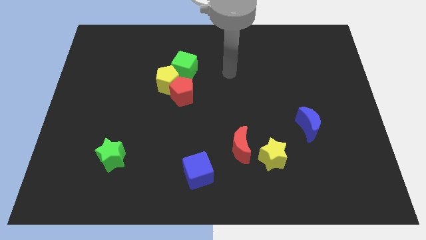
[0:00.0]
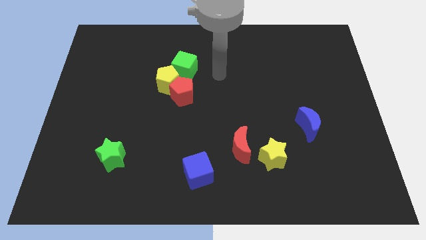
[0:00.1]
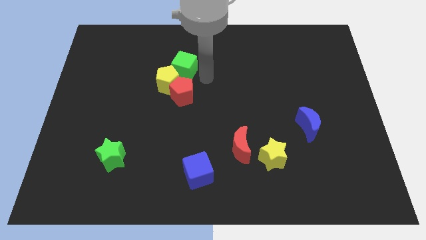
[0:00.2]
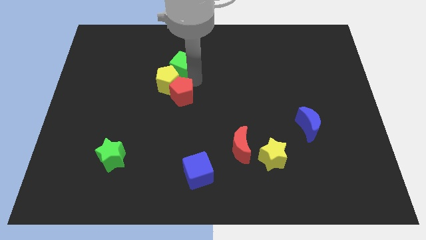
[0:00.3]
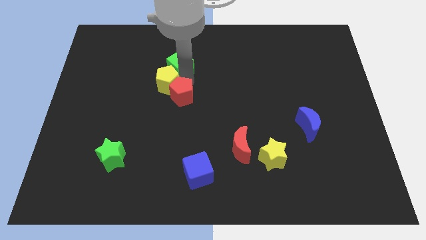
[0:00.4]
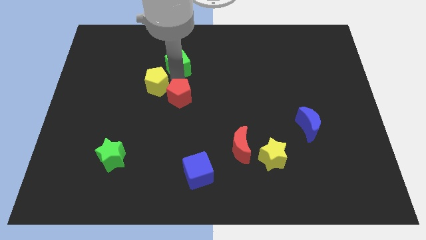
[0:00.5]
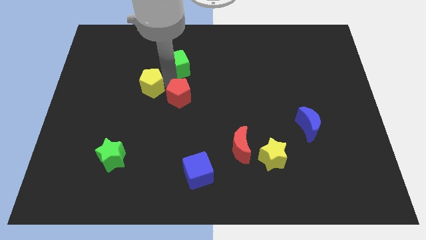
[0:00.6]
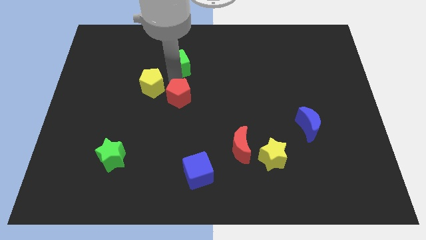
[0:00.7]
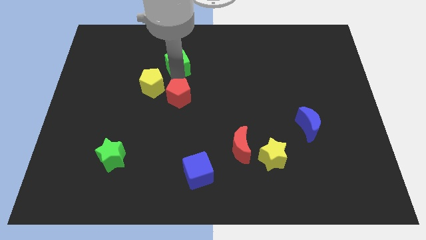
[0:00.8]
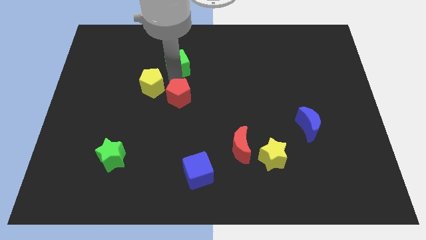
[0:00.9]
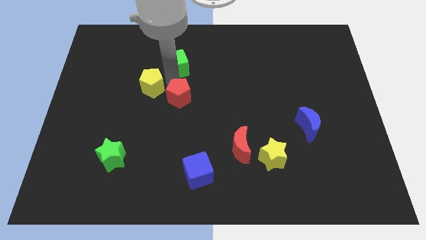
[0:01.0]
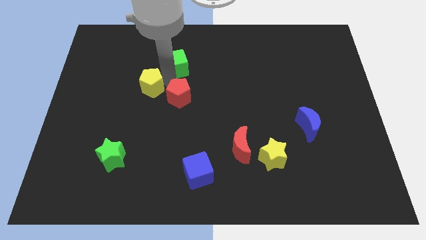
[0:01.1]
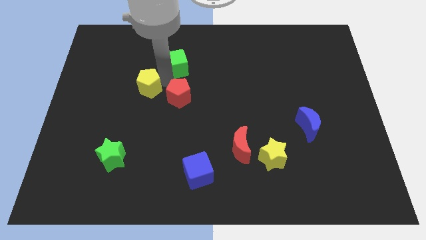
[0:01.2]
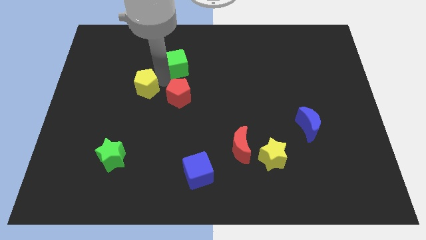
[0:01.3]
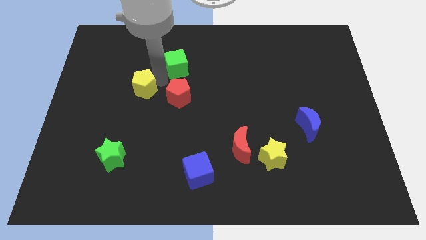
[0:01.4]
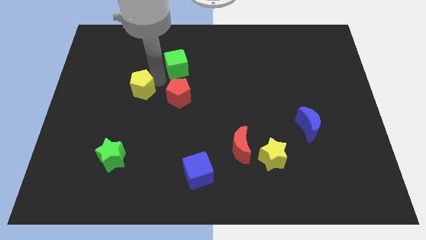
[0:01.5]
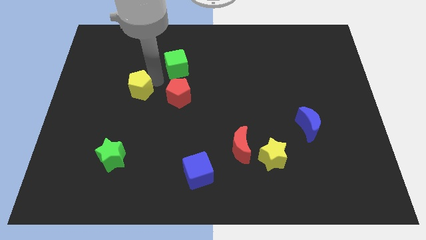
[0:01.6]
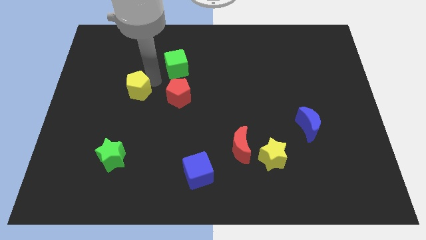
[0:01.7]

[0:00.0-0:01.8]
pull the yellow pentagon apart from the red pentagon and green cube

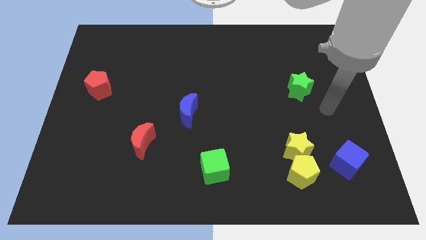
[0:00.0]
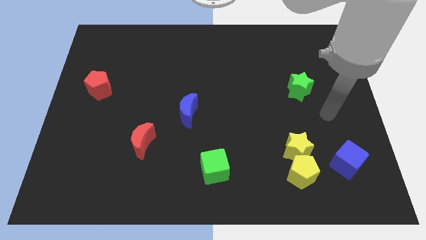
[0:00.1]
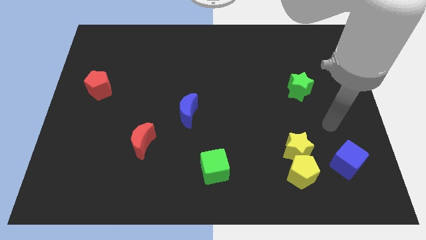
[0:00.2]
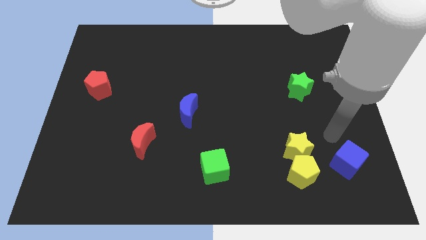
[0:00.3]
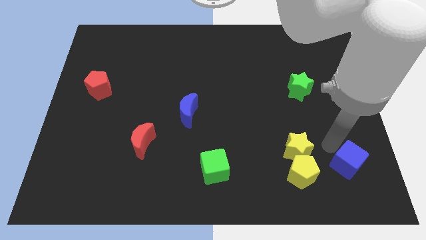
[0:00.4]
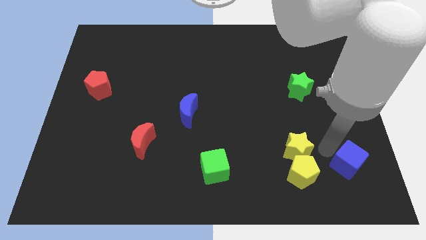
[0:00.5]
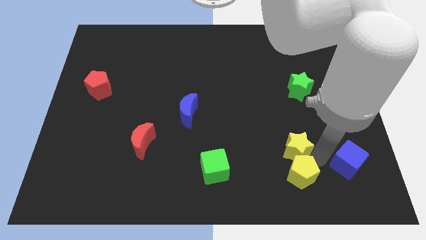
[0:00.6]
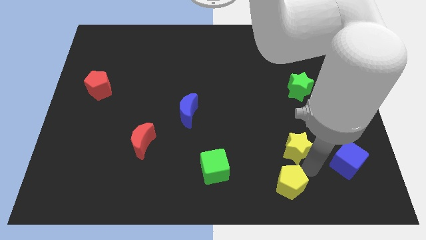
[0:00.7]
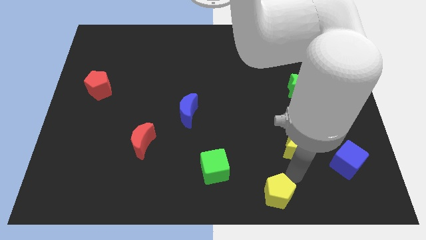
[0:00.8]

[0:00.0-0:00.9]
move the yellow star away from the yellow pentagon

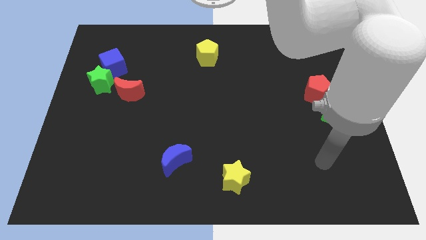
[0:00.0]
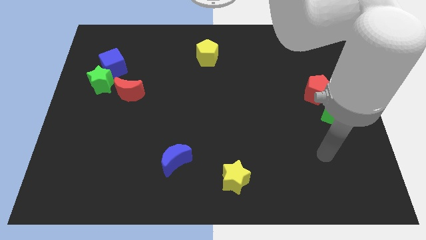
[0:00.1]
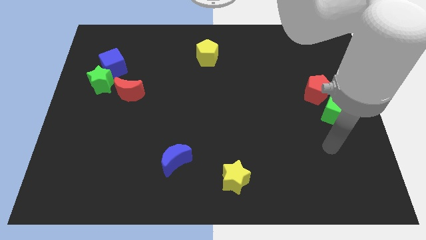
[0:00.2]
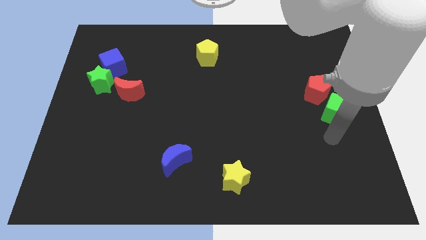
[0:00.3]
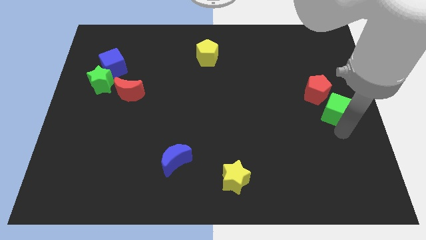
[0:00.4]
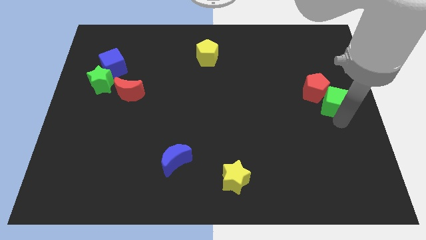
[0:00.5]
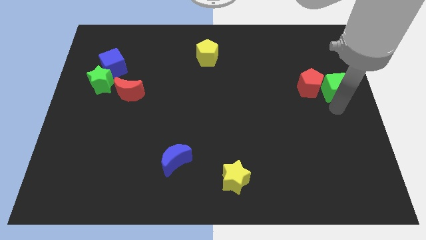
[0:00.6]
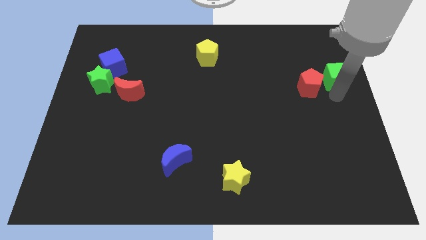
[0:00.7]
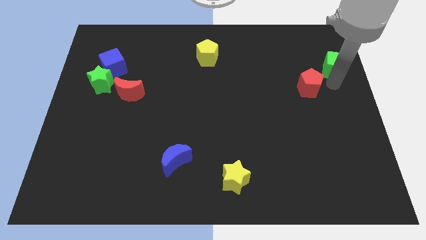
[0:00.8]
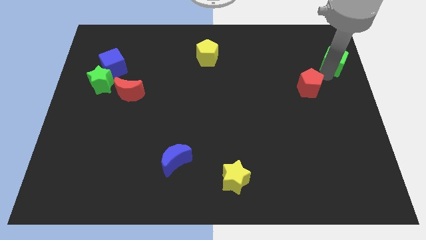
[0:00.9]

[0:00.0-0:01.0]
separate the red pentagon from the green cube

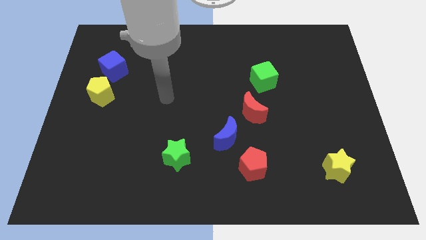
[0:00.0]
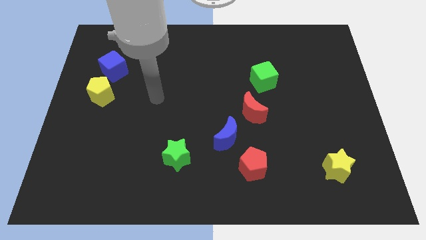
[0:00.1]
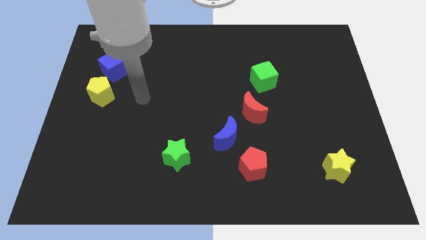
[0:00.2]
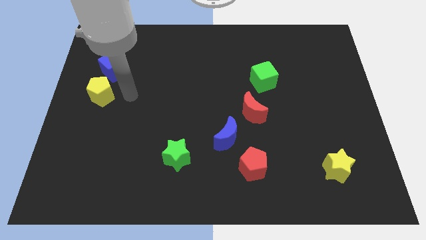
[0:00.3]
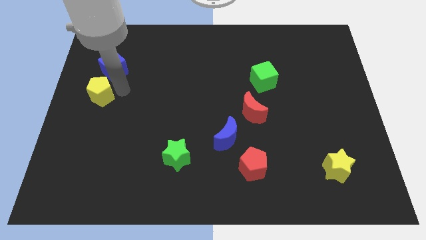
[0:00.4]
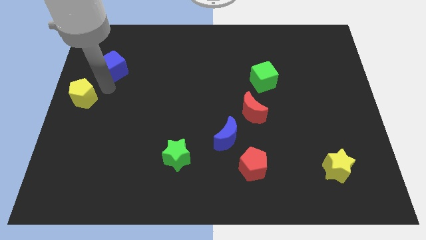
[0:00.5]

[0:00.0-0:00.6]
move the blue cube away from the yellow pentagon

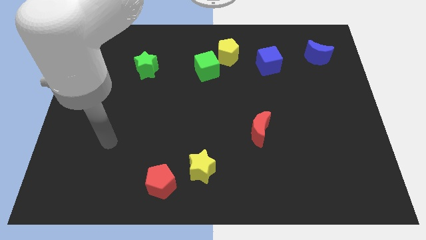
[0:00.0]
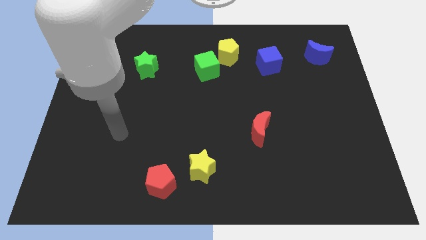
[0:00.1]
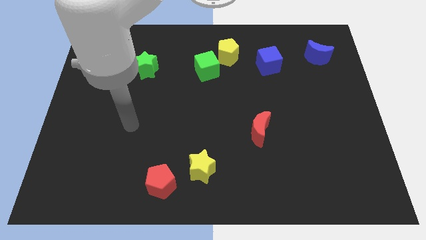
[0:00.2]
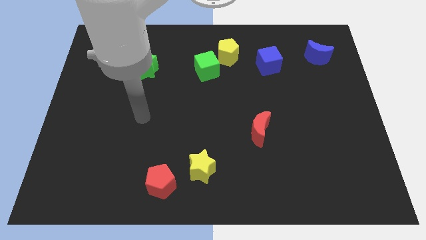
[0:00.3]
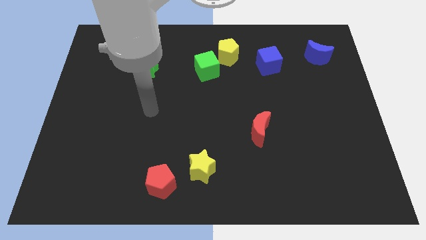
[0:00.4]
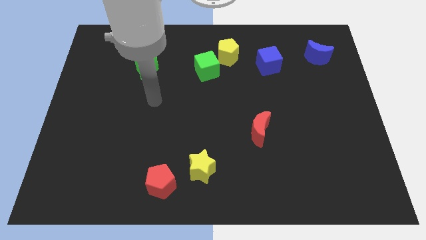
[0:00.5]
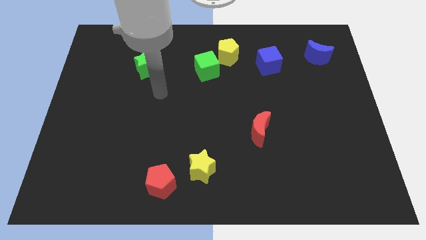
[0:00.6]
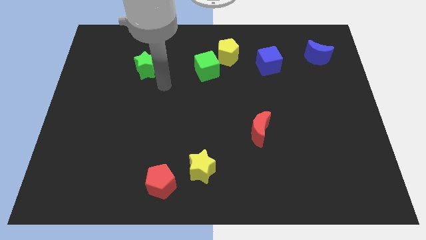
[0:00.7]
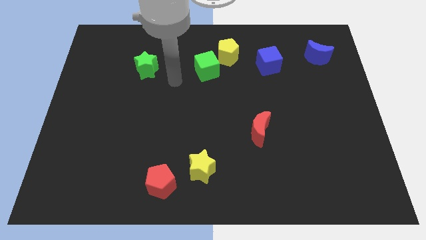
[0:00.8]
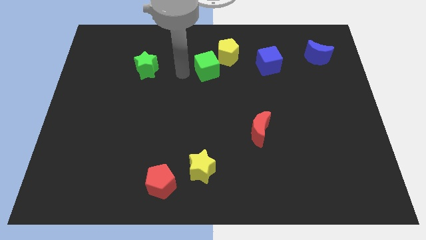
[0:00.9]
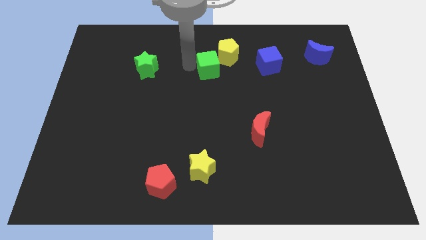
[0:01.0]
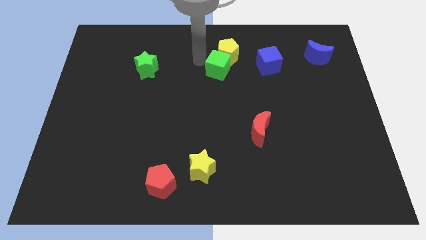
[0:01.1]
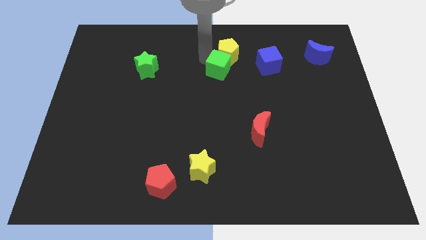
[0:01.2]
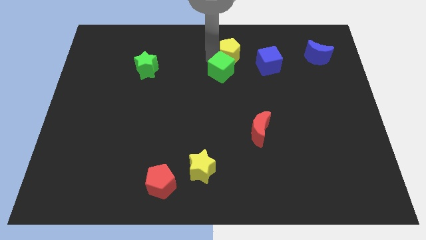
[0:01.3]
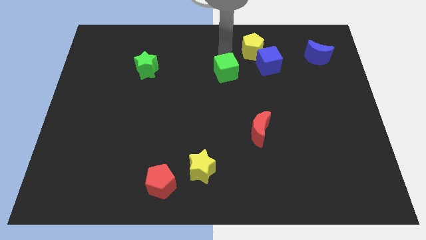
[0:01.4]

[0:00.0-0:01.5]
pull the green cube apart from the yellow pentagon

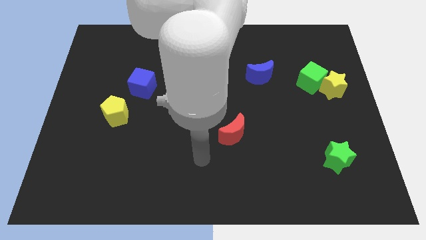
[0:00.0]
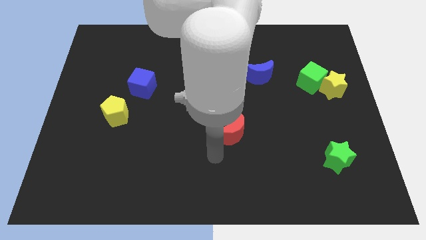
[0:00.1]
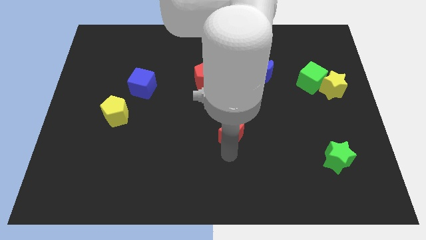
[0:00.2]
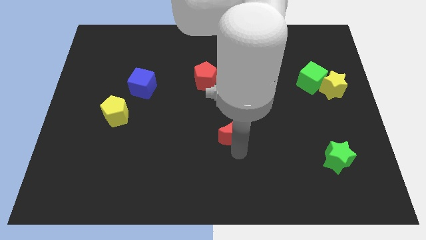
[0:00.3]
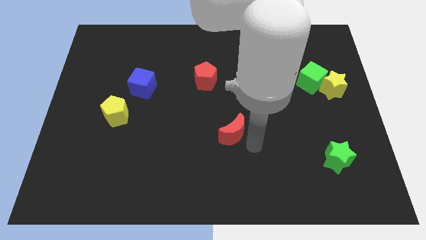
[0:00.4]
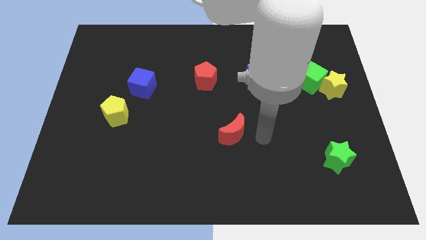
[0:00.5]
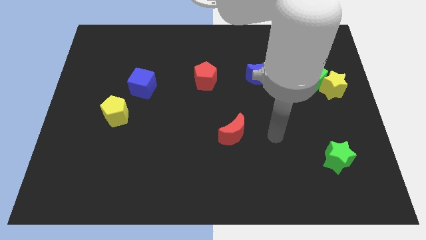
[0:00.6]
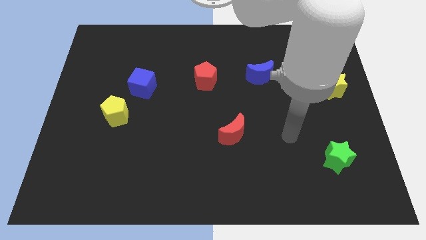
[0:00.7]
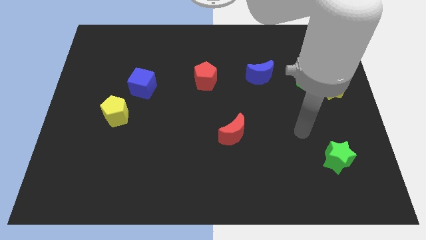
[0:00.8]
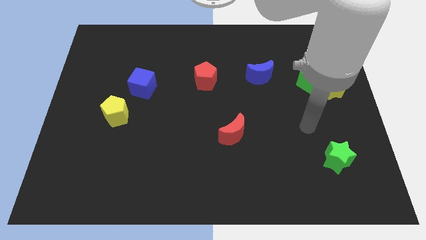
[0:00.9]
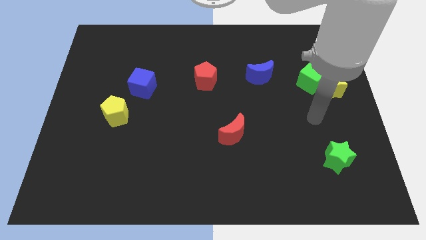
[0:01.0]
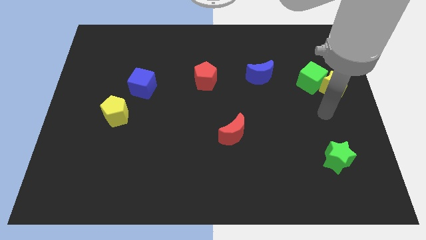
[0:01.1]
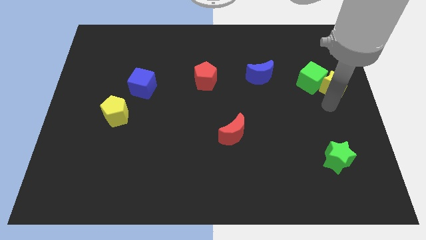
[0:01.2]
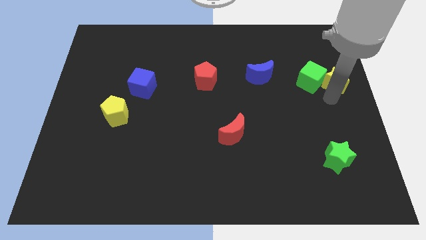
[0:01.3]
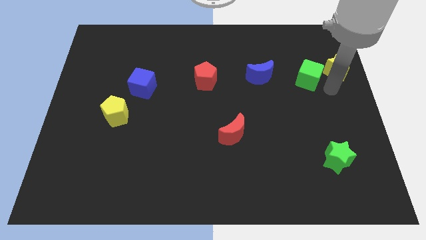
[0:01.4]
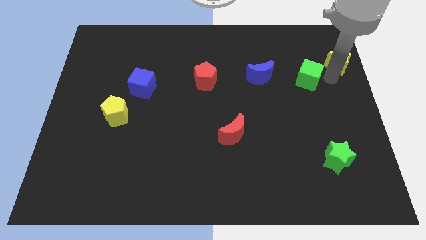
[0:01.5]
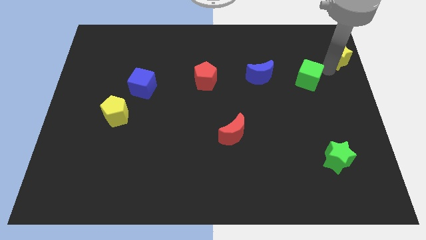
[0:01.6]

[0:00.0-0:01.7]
pull the green cube apart from the yellow star

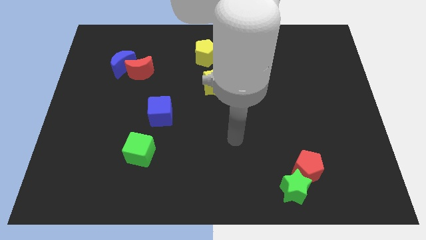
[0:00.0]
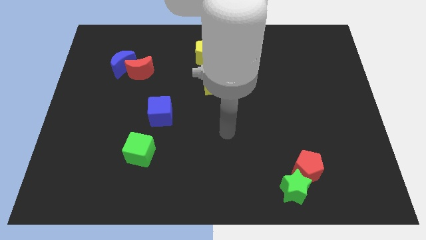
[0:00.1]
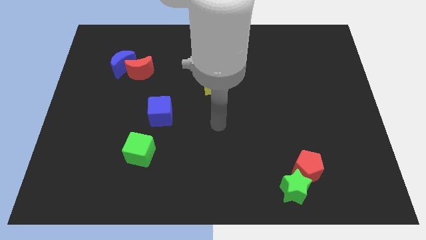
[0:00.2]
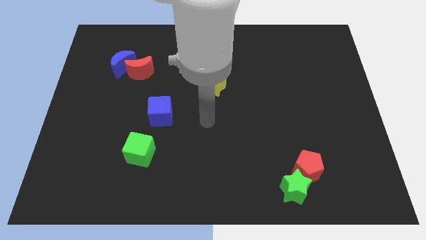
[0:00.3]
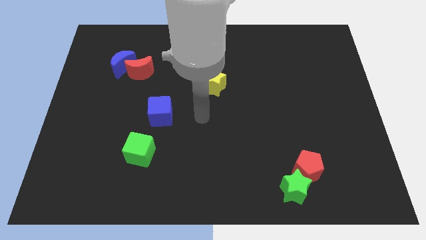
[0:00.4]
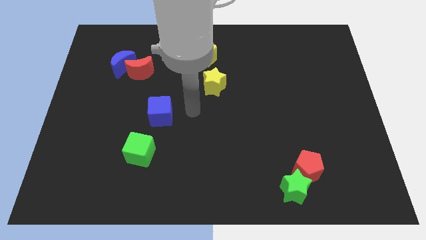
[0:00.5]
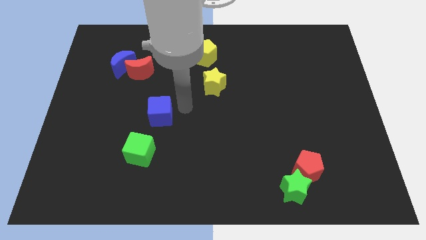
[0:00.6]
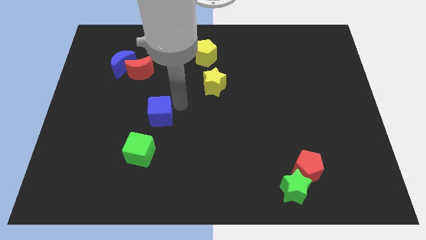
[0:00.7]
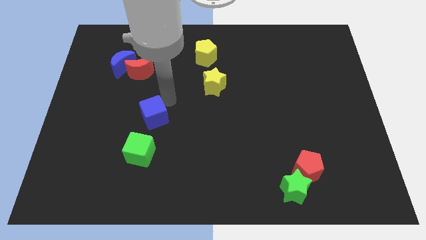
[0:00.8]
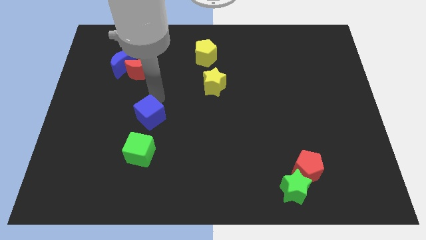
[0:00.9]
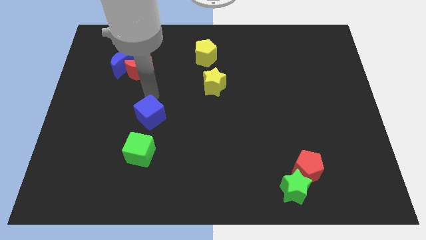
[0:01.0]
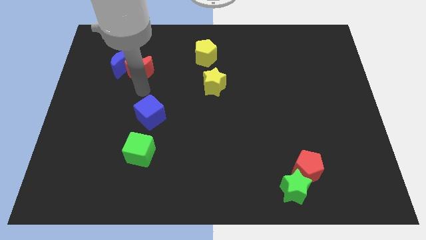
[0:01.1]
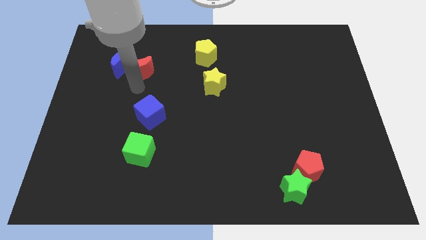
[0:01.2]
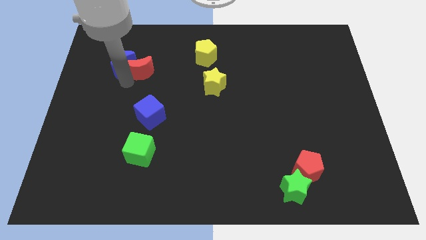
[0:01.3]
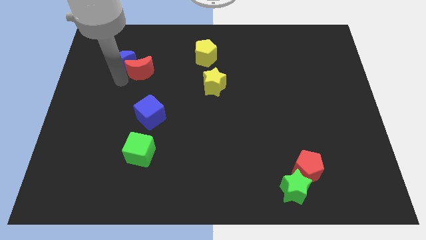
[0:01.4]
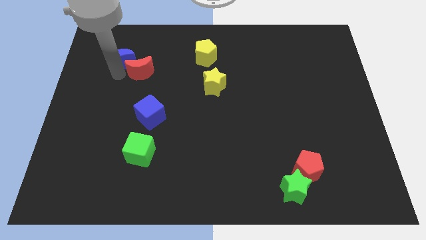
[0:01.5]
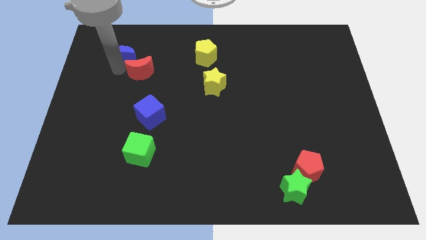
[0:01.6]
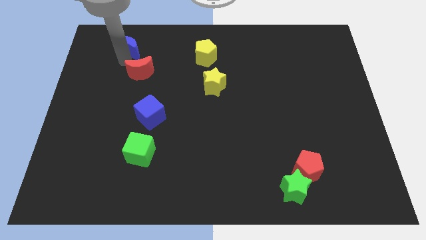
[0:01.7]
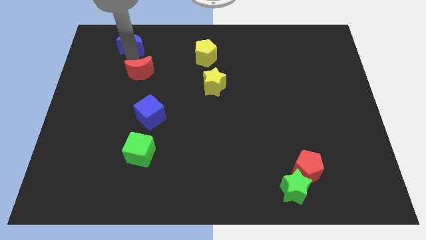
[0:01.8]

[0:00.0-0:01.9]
separate the red moon from the blue moon
